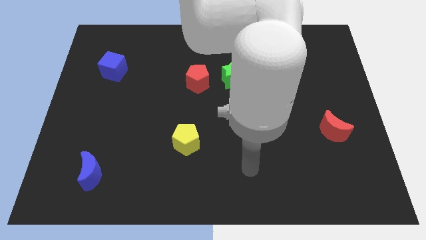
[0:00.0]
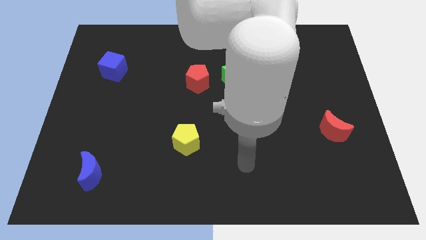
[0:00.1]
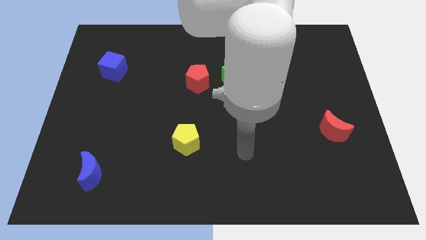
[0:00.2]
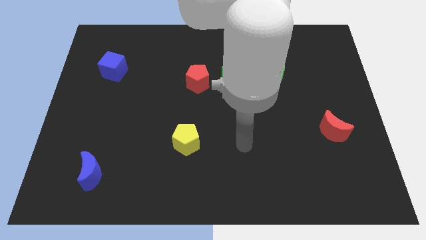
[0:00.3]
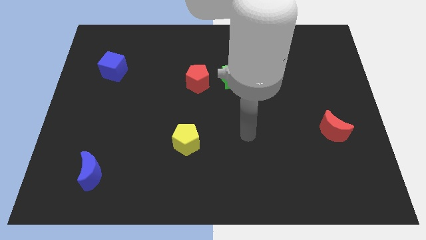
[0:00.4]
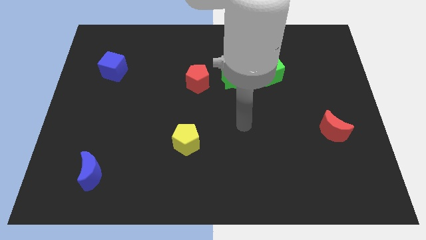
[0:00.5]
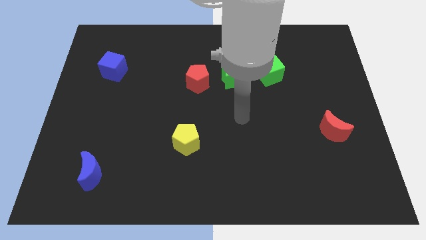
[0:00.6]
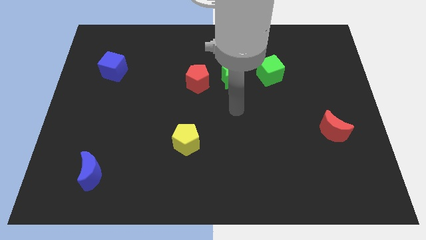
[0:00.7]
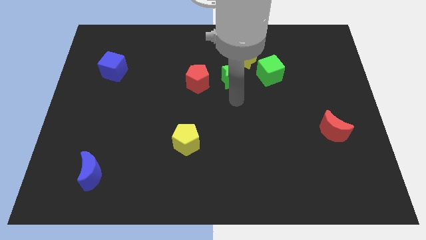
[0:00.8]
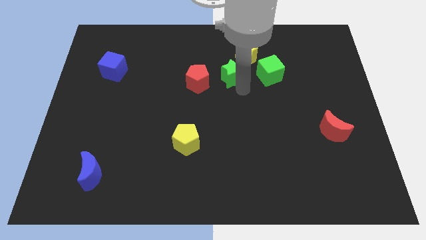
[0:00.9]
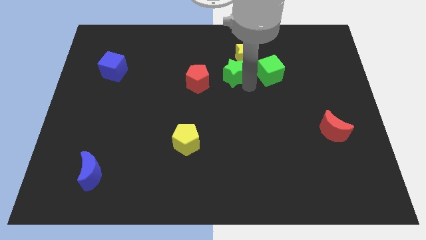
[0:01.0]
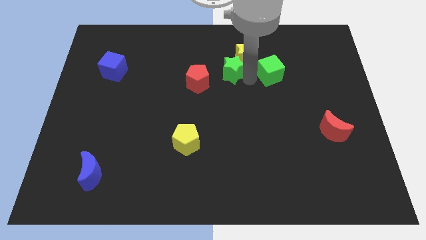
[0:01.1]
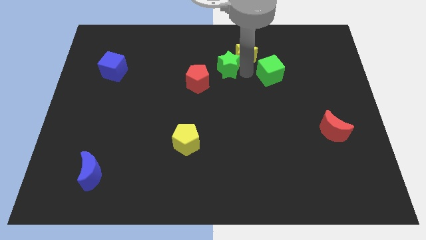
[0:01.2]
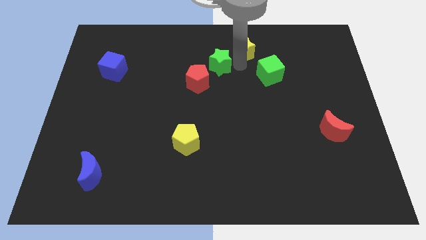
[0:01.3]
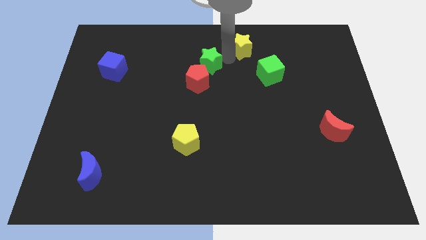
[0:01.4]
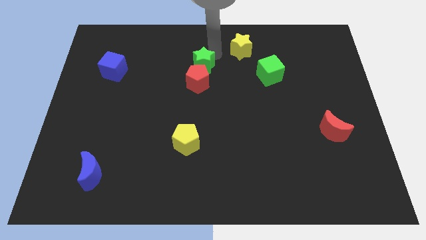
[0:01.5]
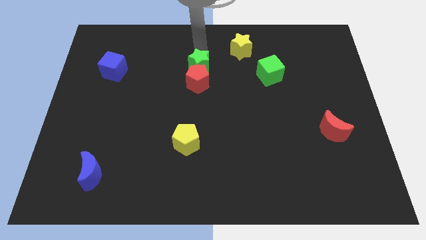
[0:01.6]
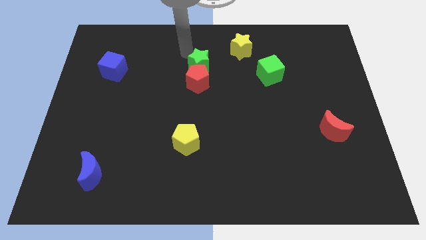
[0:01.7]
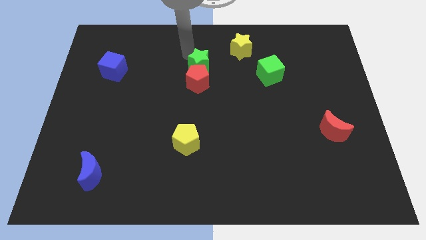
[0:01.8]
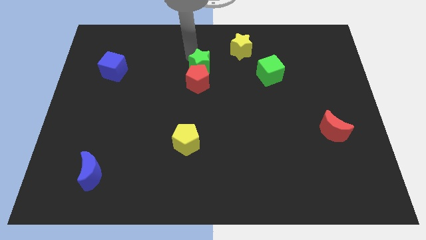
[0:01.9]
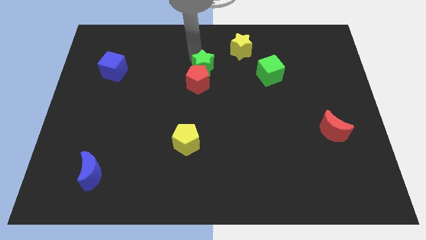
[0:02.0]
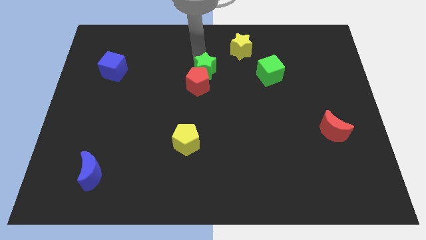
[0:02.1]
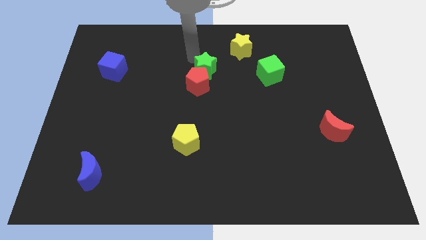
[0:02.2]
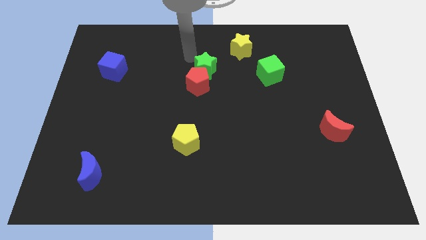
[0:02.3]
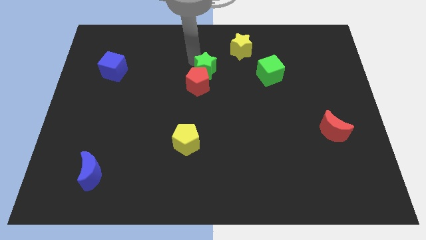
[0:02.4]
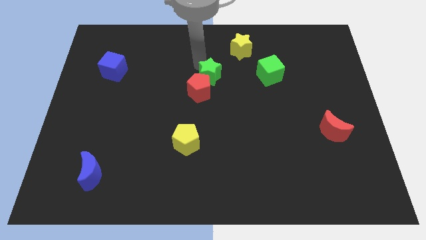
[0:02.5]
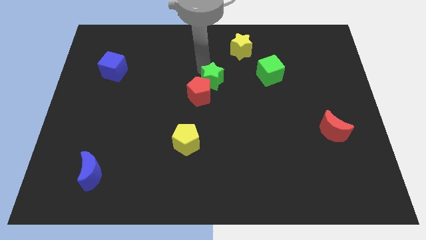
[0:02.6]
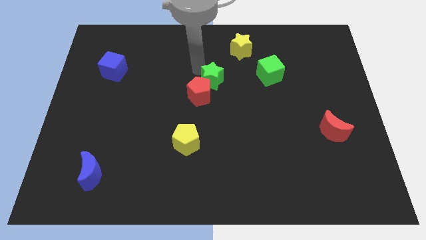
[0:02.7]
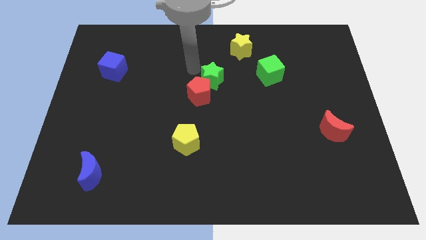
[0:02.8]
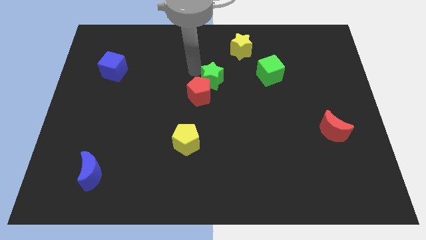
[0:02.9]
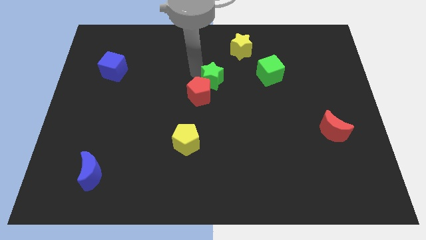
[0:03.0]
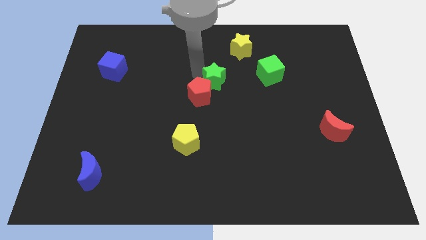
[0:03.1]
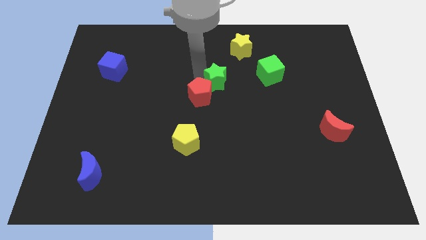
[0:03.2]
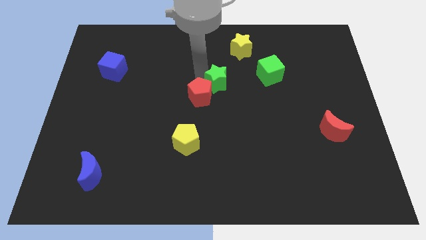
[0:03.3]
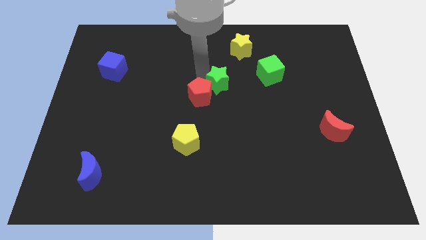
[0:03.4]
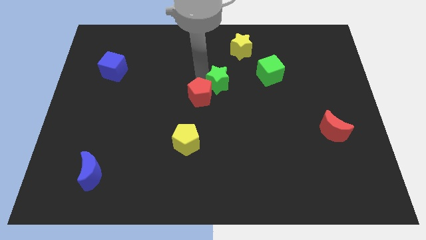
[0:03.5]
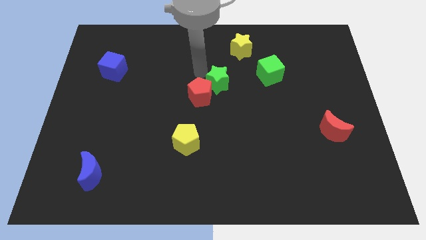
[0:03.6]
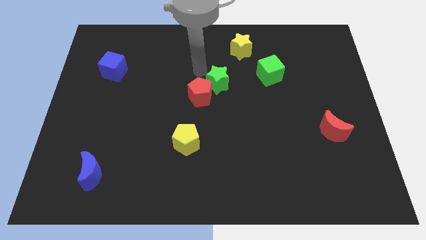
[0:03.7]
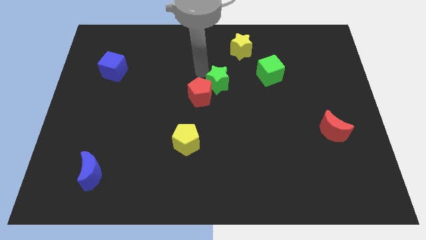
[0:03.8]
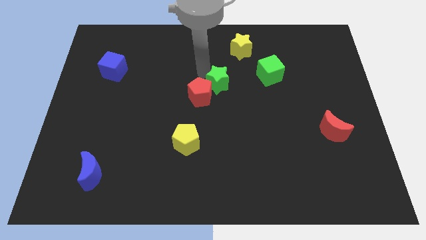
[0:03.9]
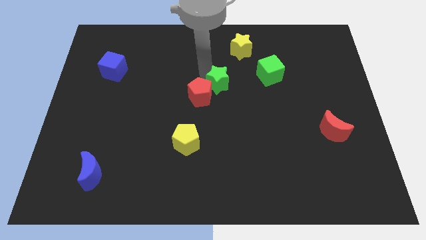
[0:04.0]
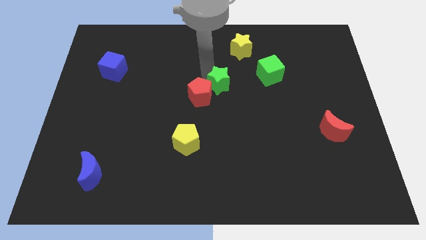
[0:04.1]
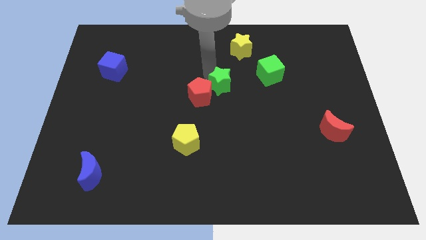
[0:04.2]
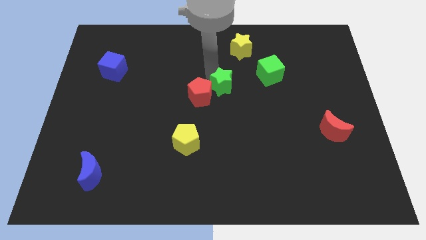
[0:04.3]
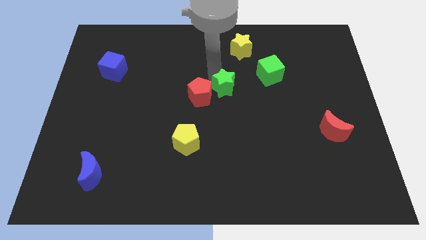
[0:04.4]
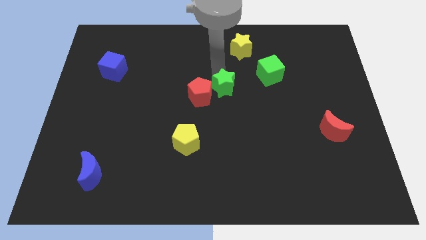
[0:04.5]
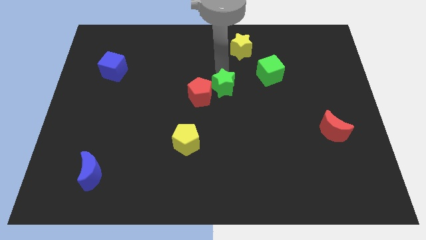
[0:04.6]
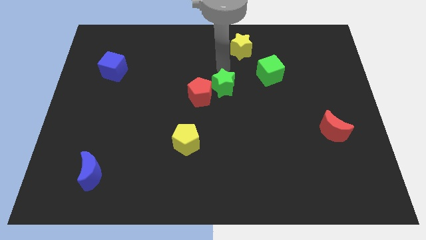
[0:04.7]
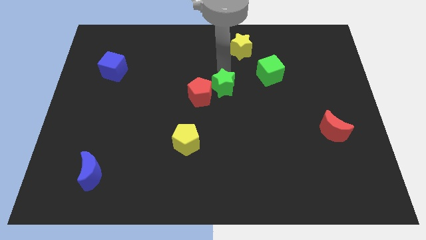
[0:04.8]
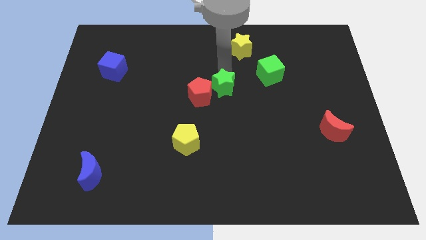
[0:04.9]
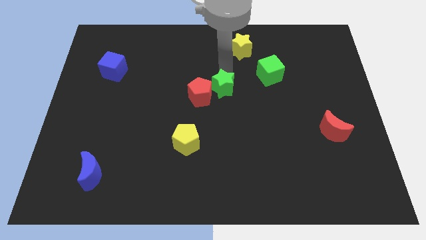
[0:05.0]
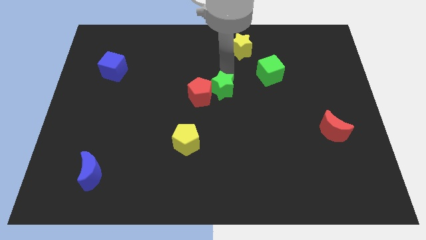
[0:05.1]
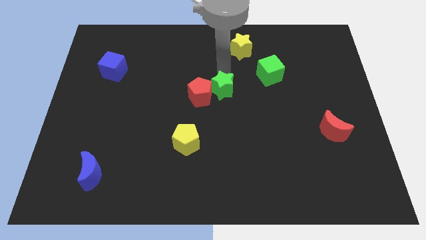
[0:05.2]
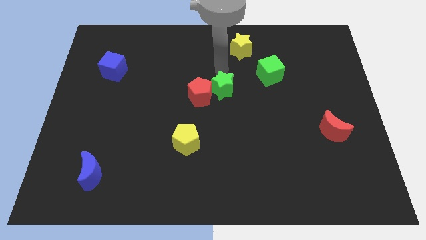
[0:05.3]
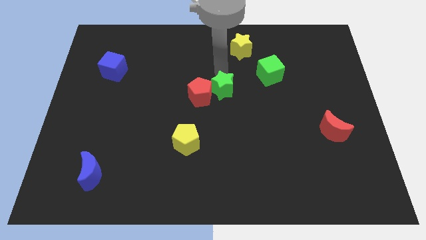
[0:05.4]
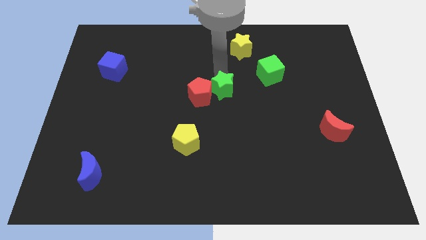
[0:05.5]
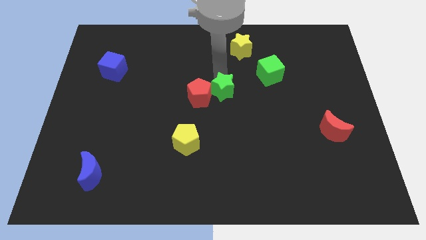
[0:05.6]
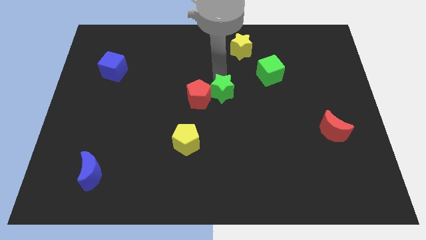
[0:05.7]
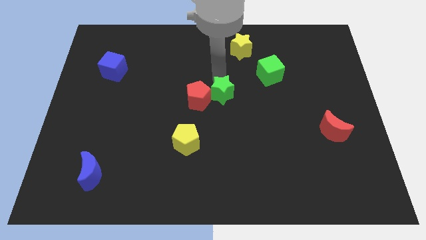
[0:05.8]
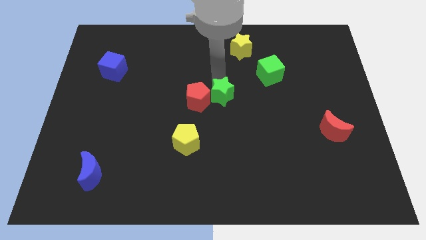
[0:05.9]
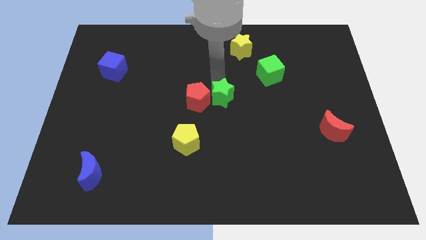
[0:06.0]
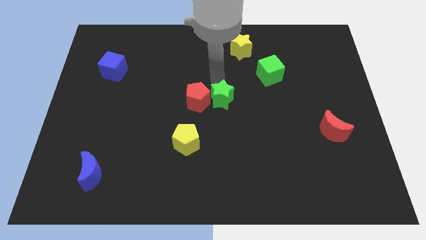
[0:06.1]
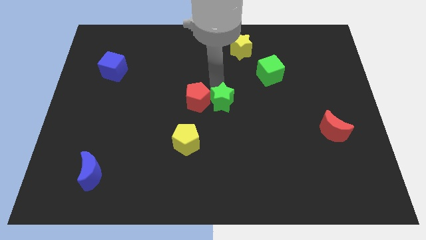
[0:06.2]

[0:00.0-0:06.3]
move the green star down slightly

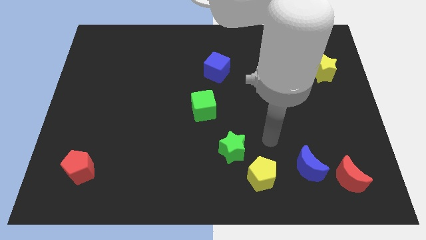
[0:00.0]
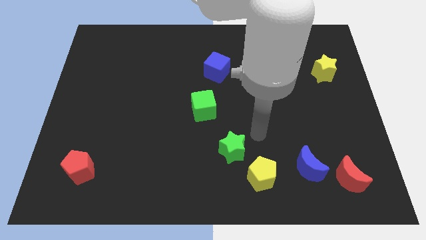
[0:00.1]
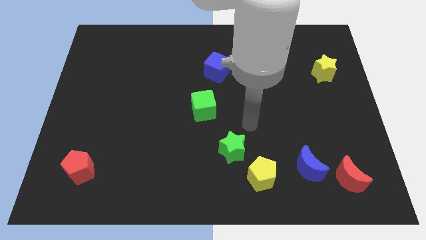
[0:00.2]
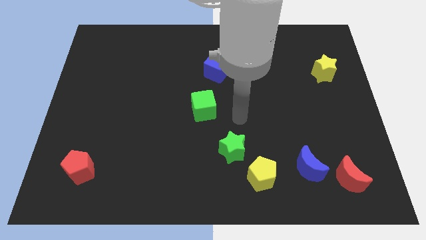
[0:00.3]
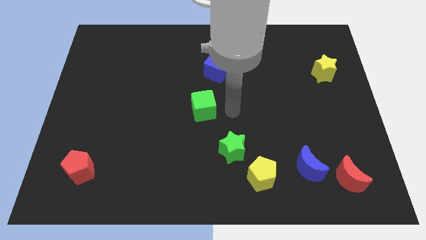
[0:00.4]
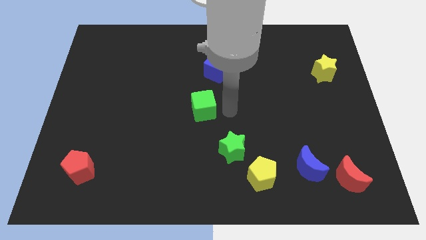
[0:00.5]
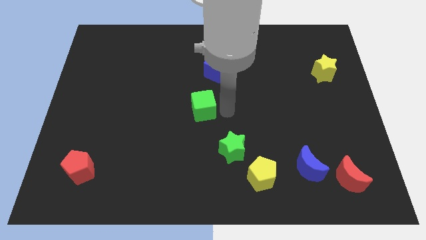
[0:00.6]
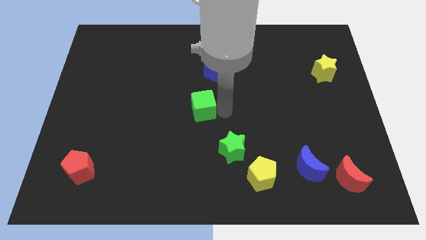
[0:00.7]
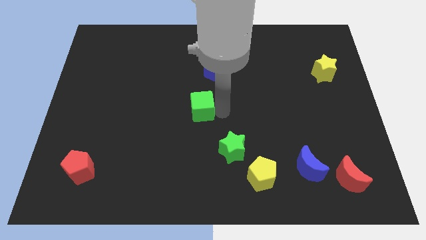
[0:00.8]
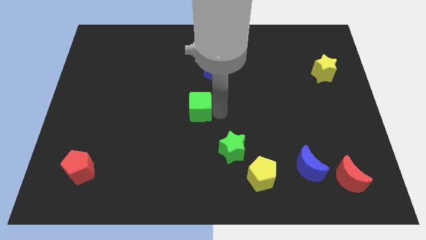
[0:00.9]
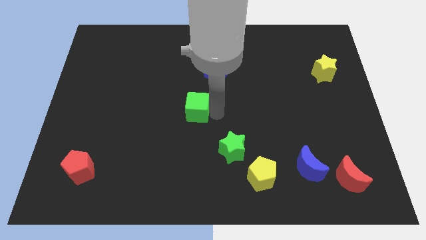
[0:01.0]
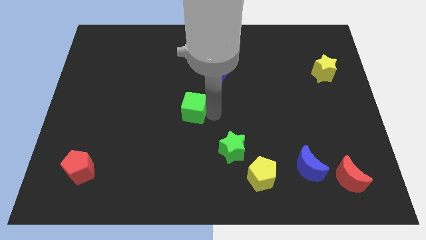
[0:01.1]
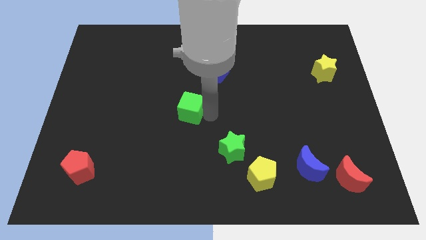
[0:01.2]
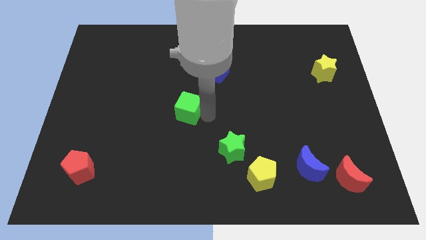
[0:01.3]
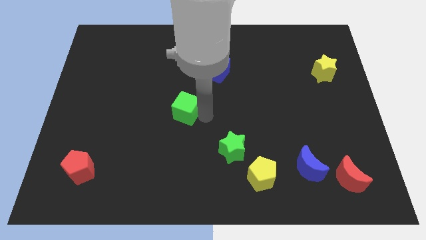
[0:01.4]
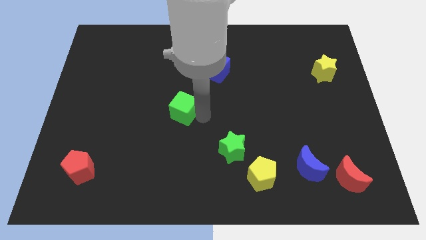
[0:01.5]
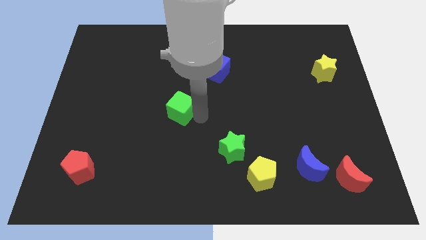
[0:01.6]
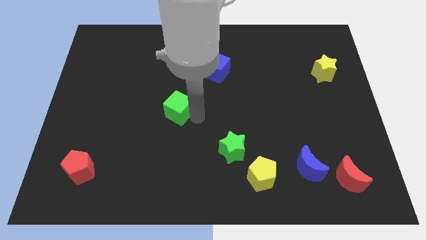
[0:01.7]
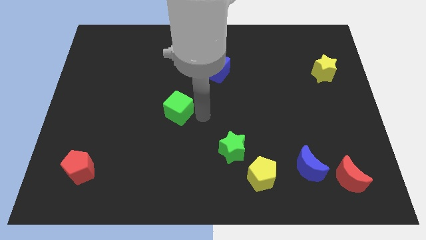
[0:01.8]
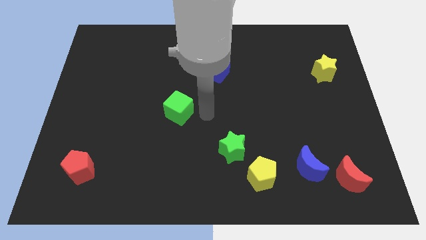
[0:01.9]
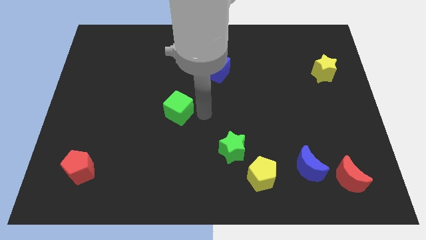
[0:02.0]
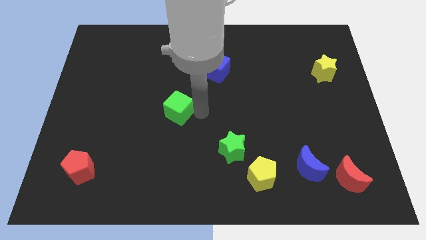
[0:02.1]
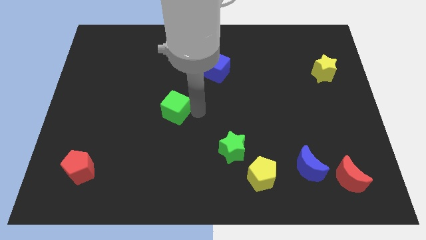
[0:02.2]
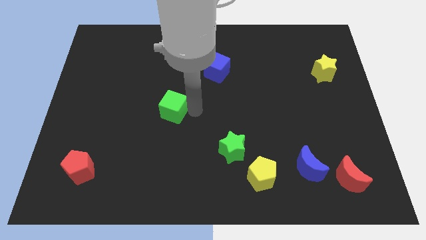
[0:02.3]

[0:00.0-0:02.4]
slide the green cube somewhat to the left
